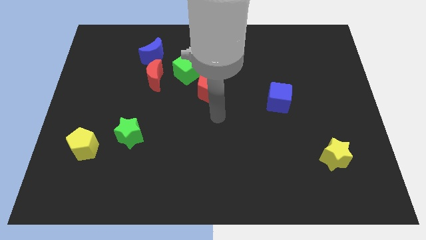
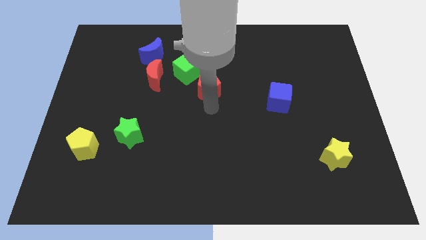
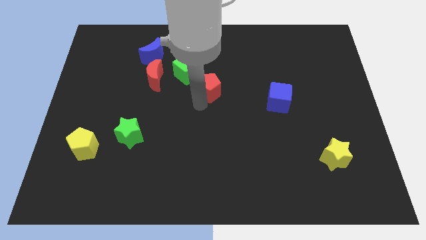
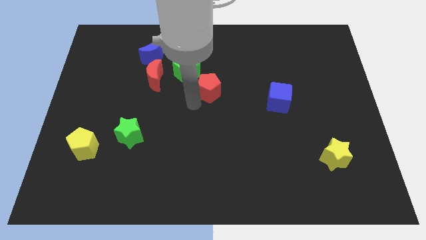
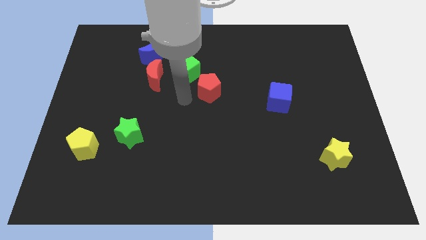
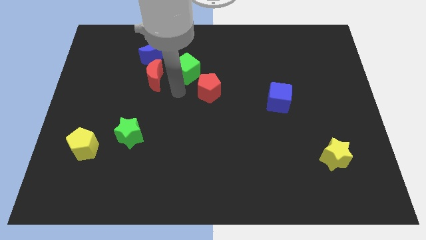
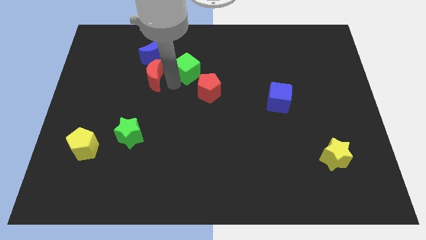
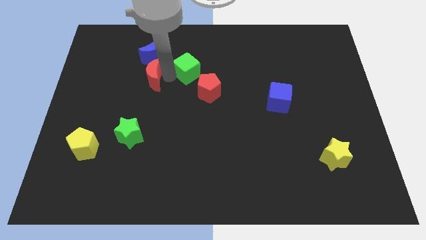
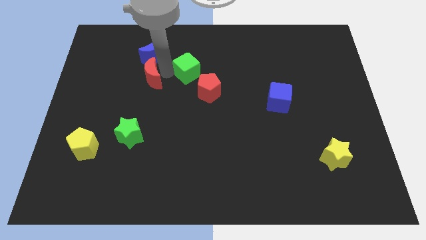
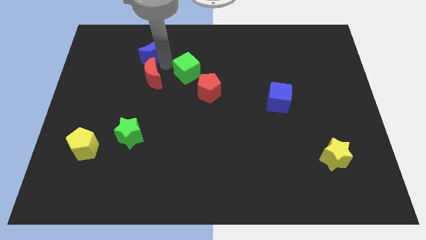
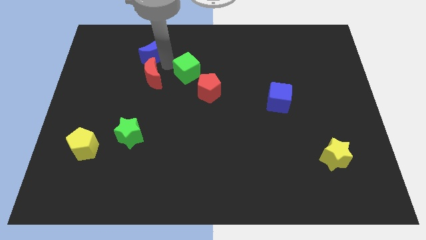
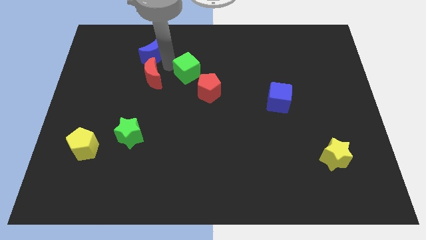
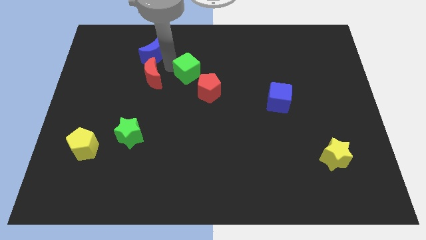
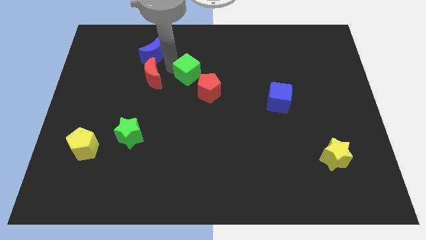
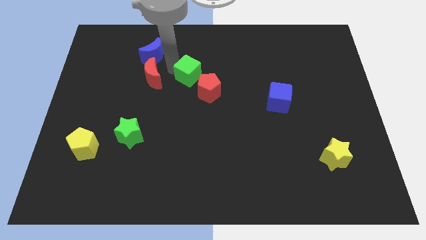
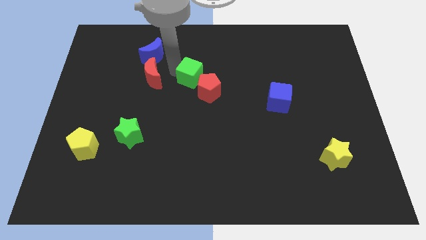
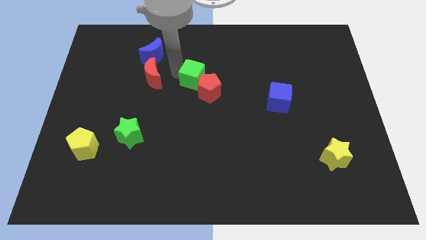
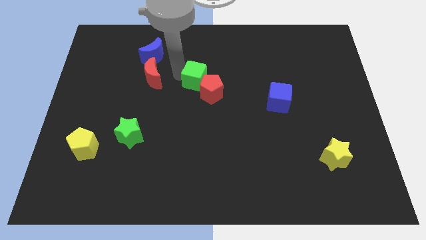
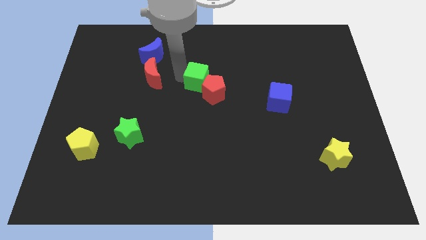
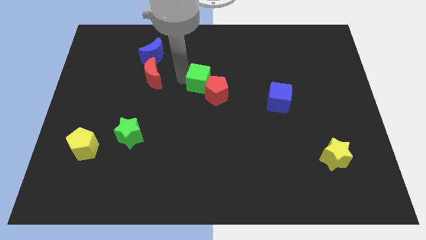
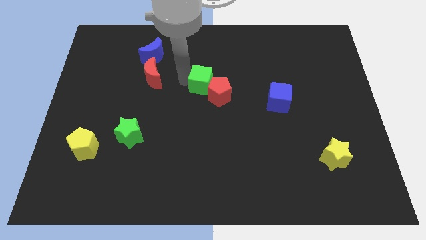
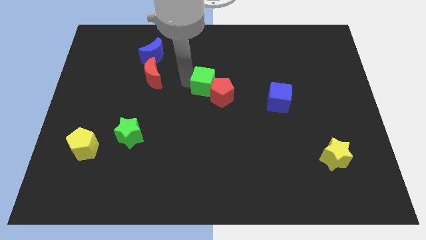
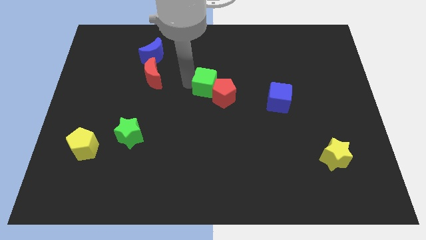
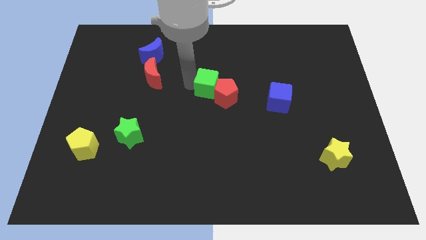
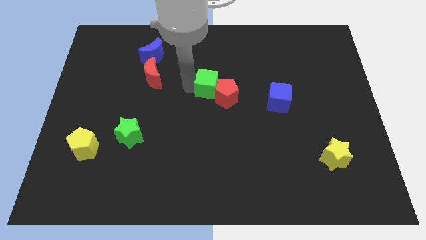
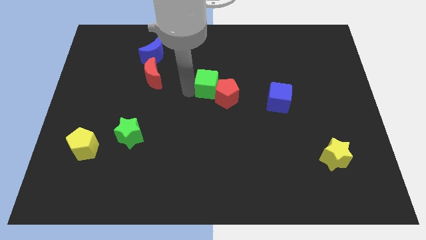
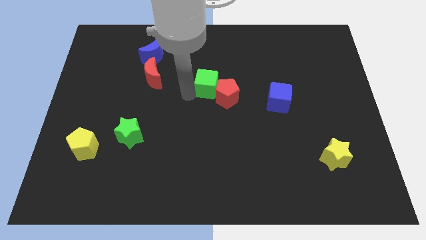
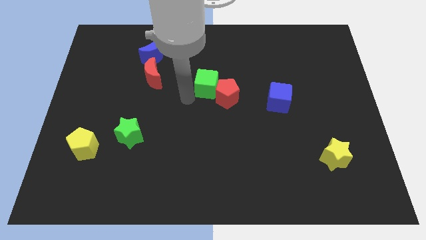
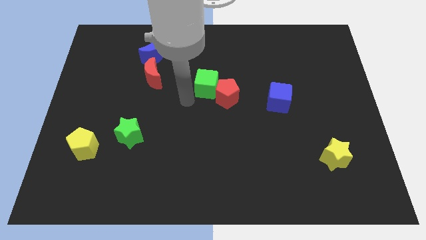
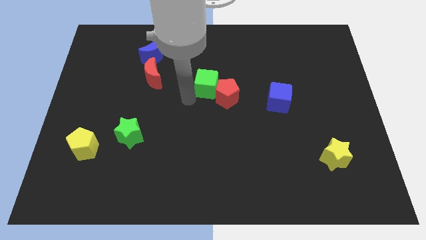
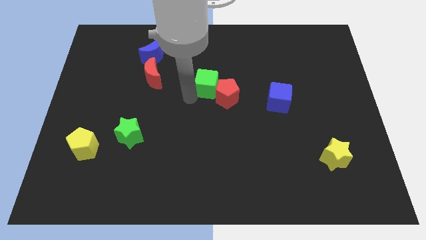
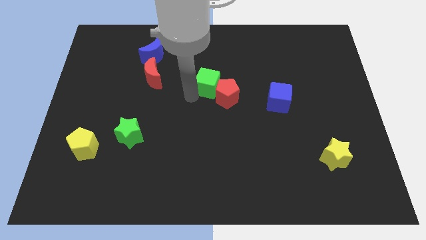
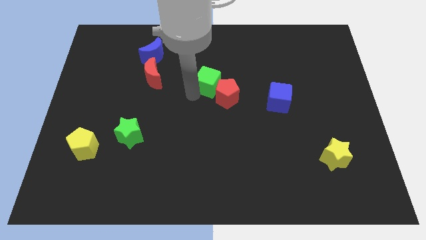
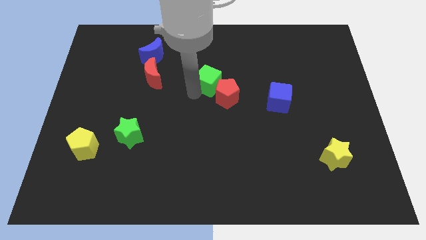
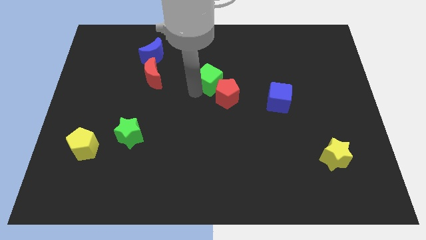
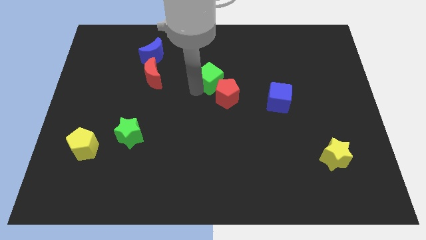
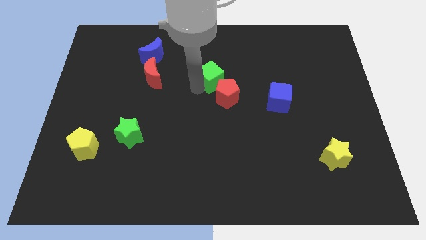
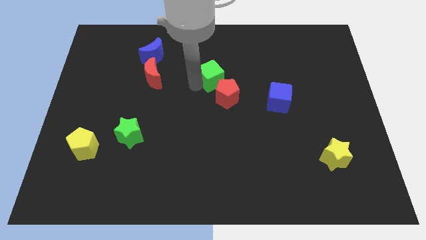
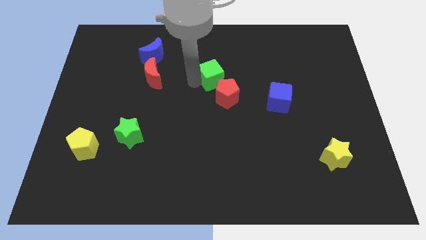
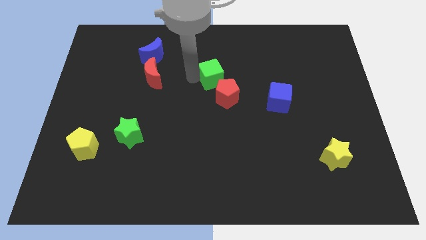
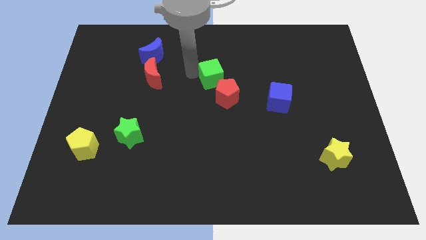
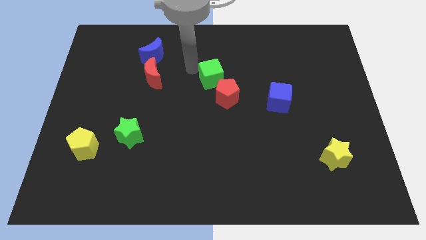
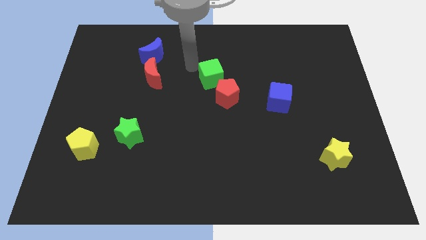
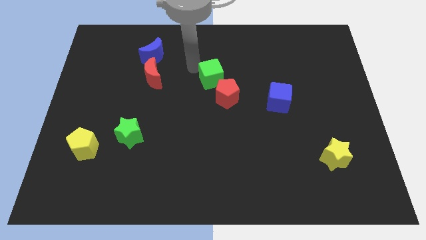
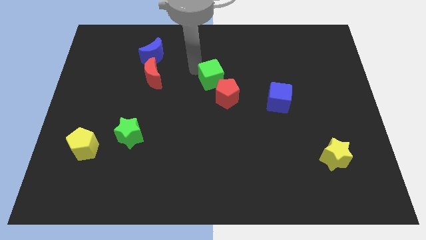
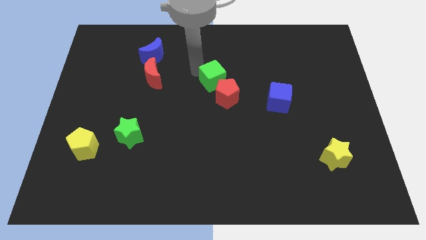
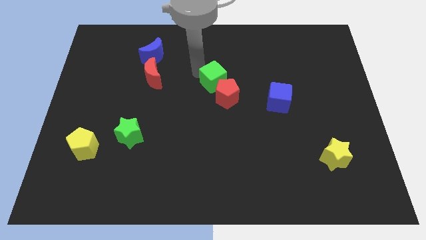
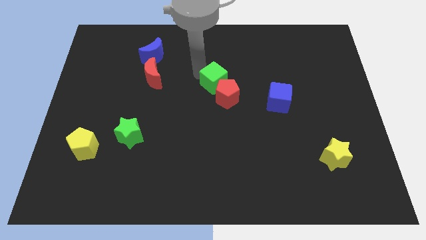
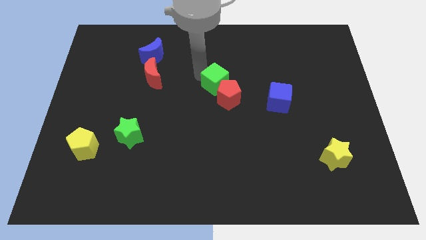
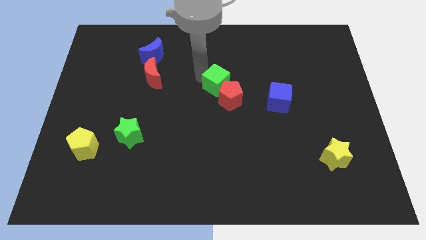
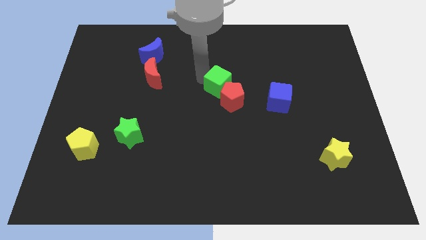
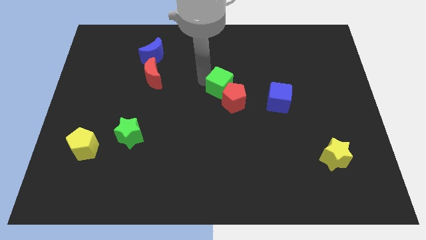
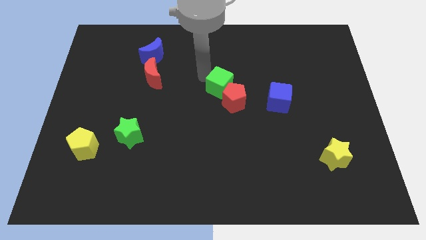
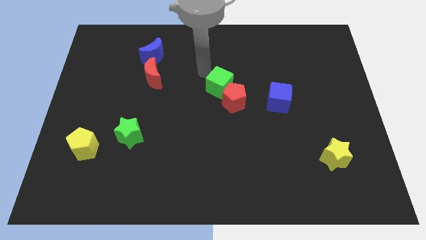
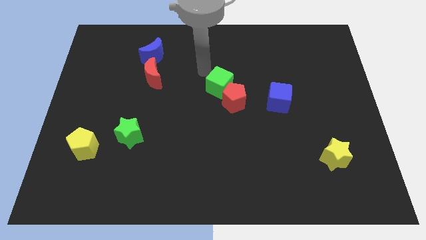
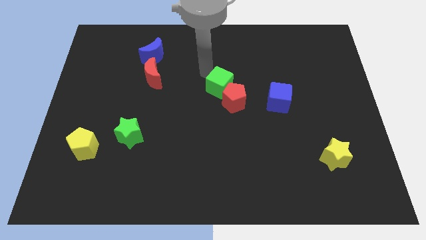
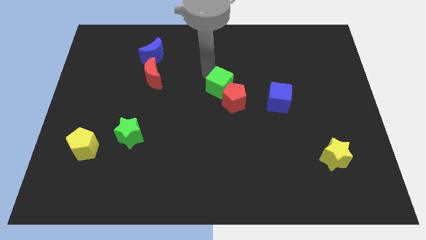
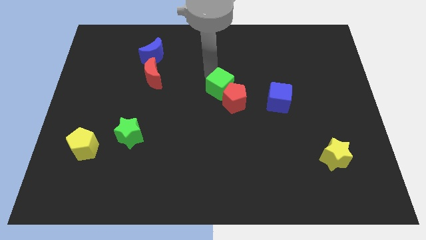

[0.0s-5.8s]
slide the green cube to the left side of the blue cube

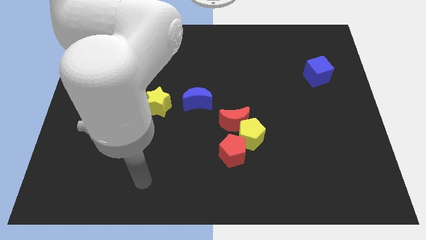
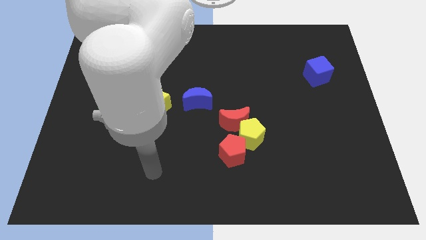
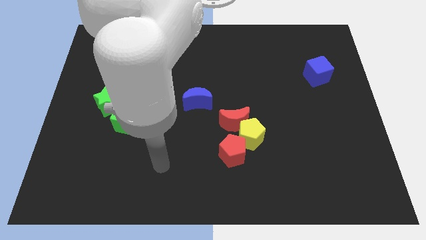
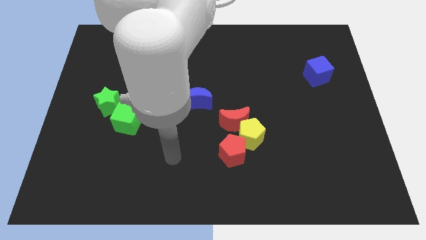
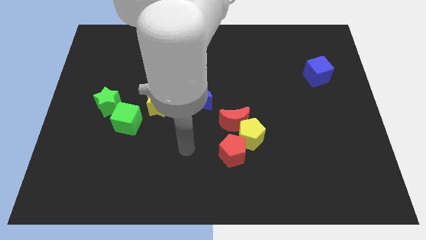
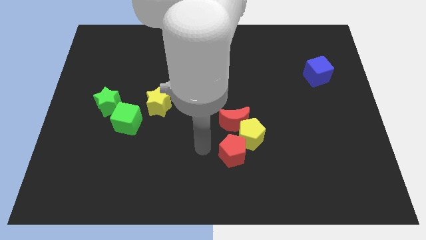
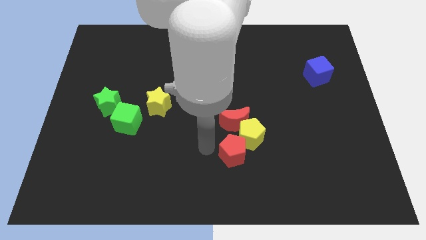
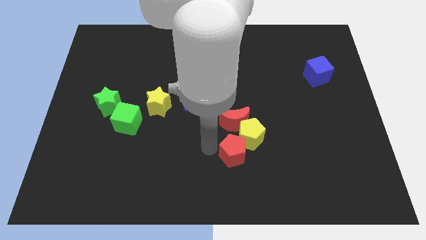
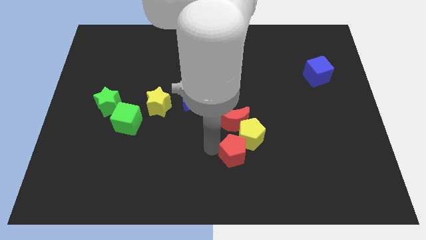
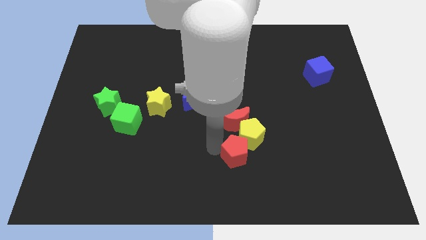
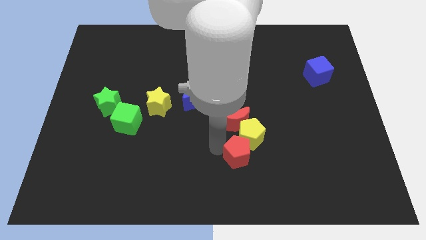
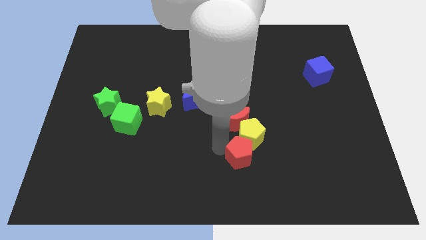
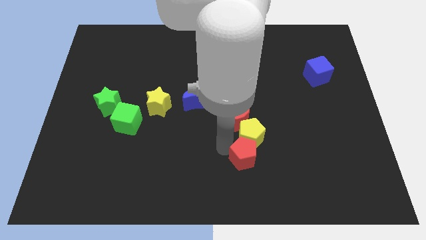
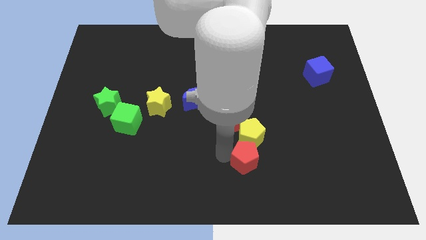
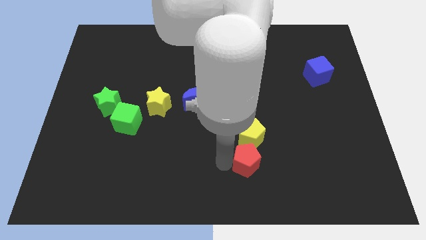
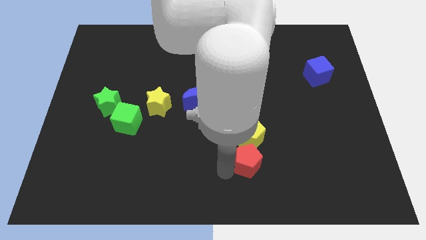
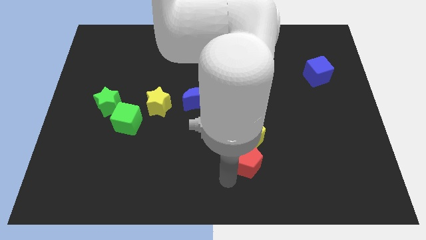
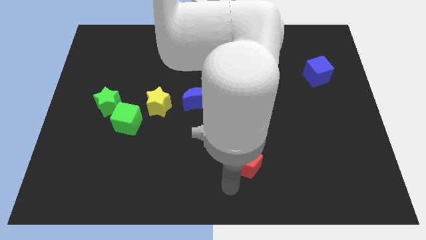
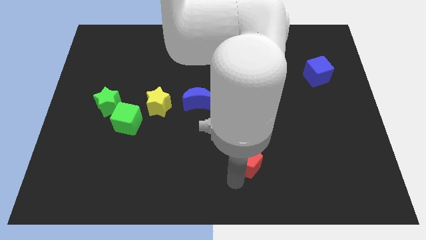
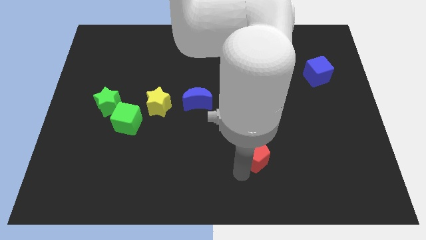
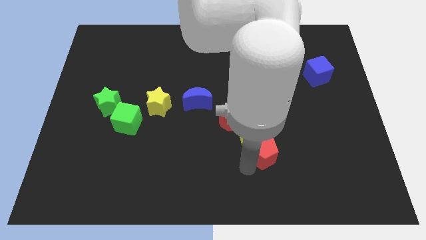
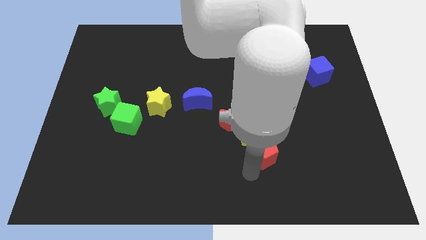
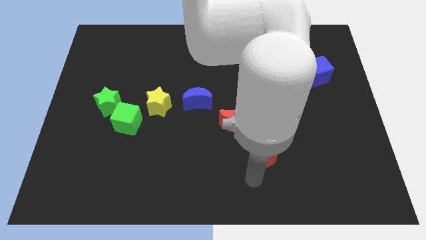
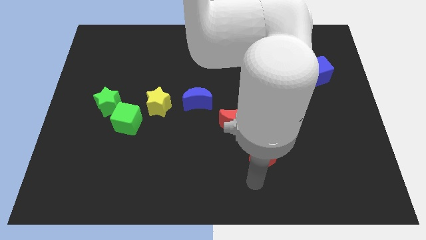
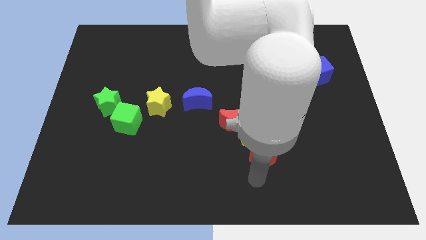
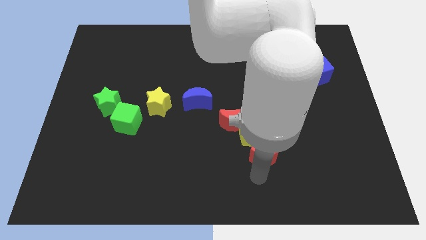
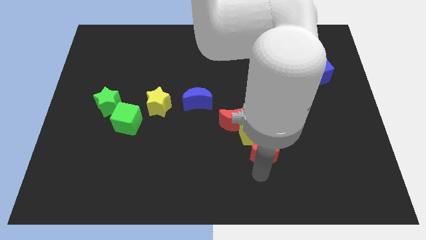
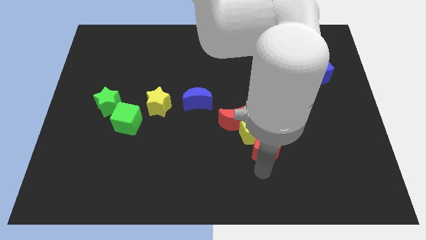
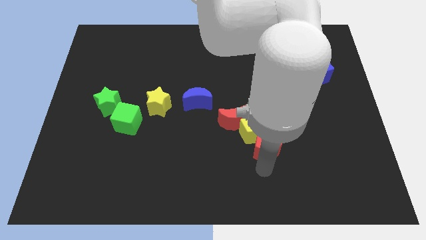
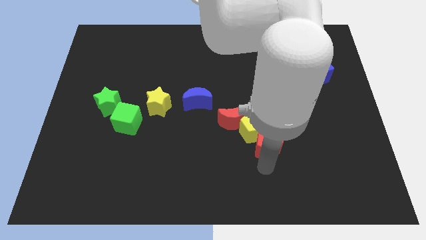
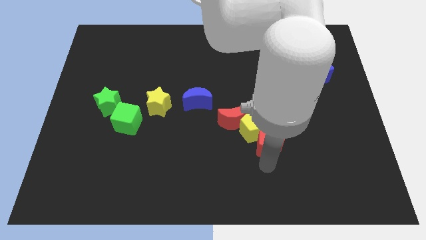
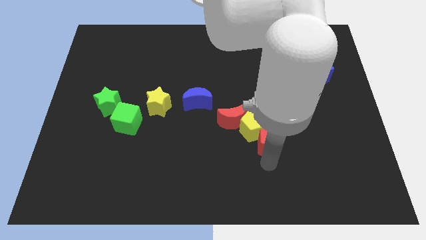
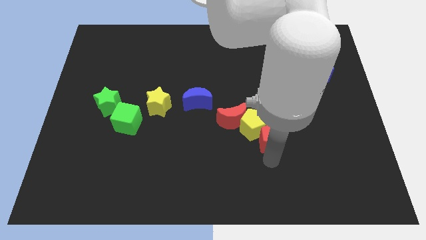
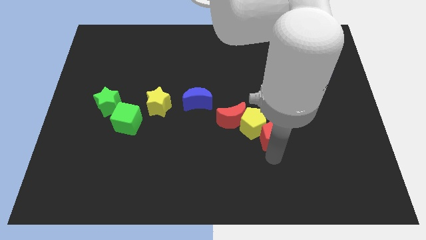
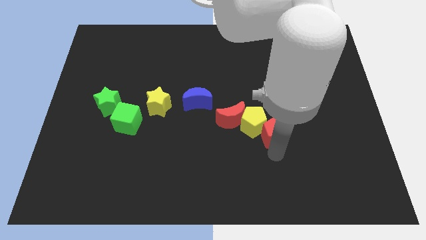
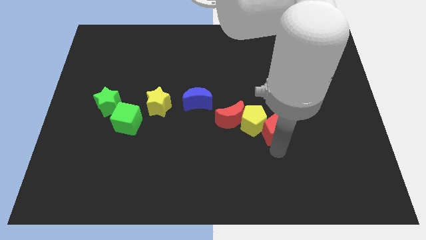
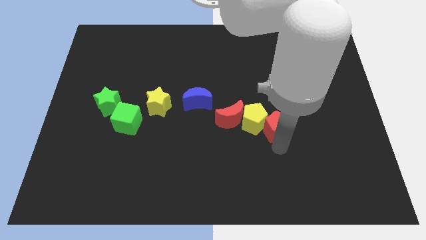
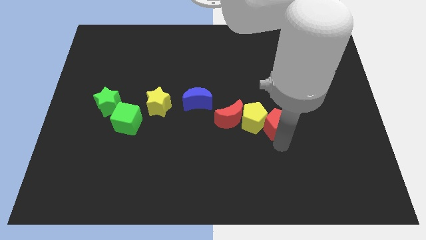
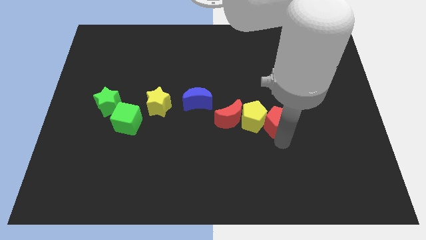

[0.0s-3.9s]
put the red pentagon diagonally up and to the right of the yellow pentagon
